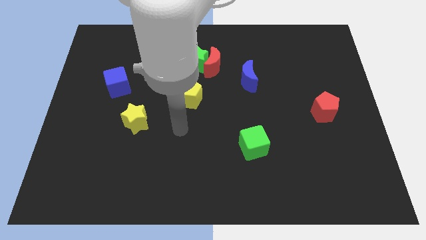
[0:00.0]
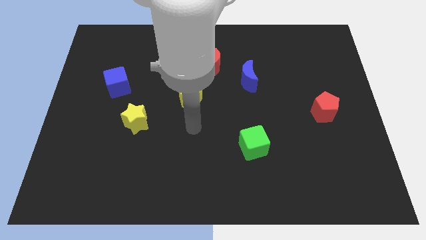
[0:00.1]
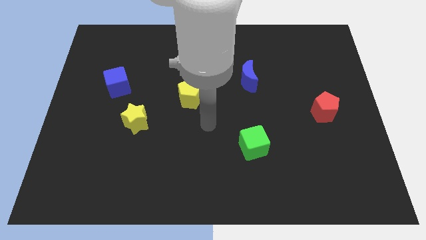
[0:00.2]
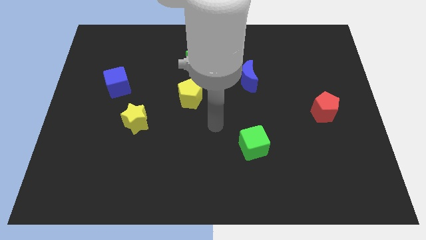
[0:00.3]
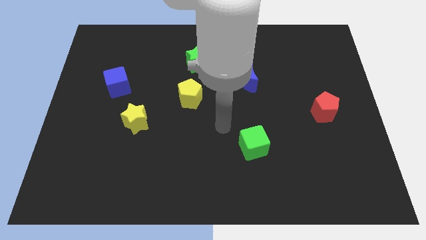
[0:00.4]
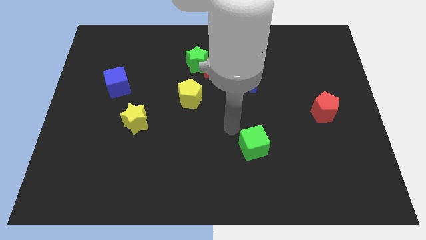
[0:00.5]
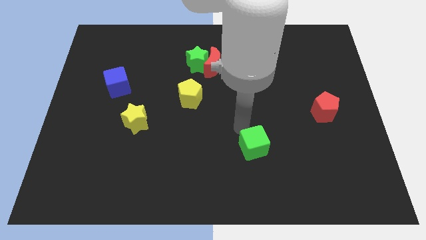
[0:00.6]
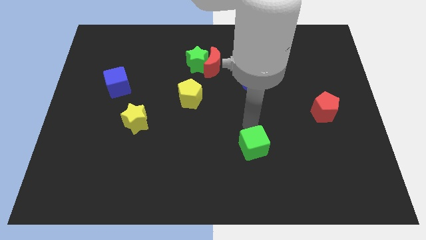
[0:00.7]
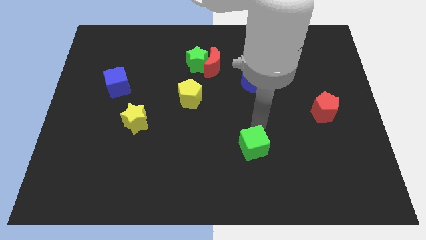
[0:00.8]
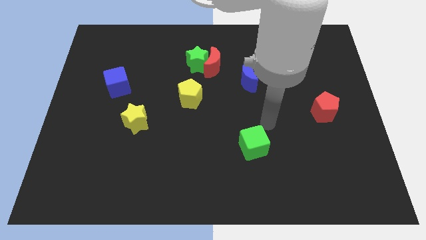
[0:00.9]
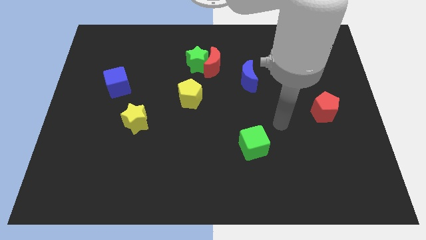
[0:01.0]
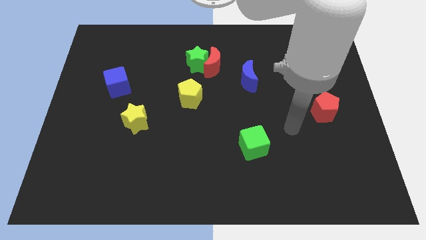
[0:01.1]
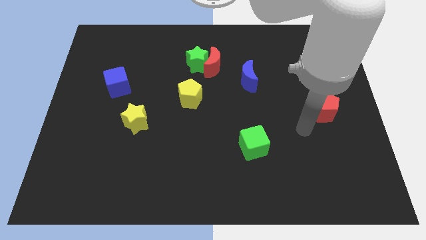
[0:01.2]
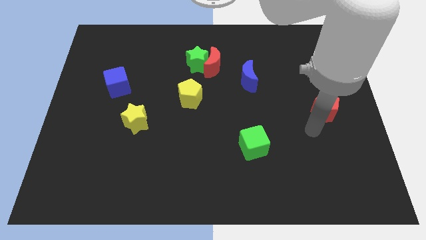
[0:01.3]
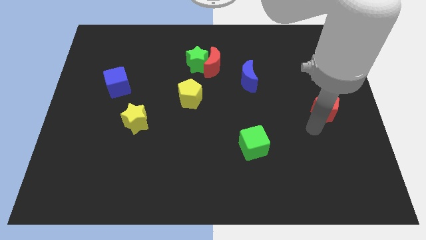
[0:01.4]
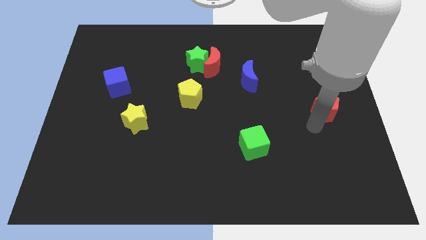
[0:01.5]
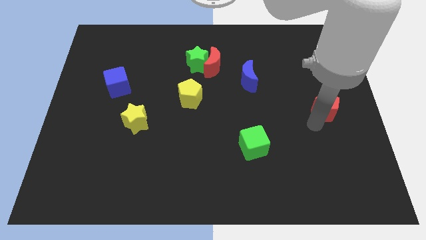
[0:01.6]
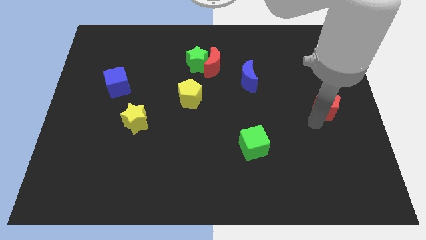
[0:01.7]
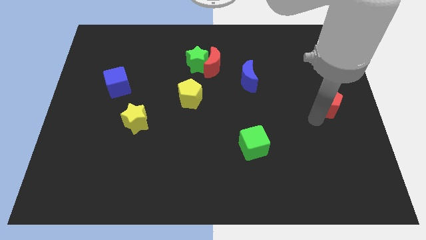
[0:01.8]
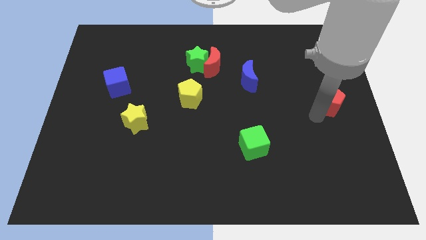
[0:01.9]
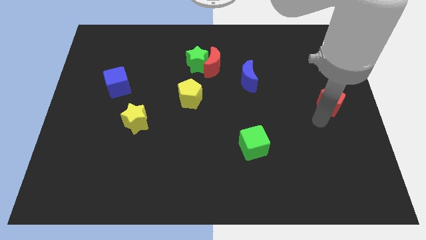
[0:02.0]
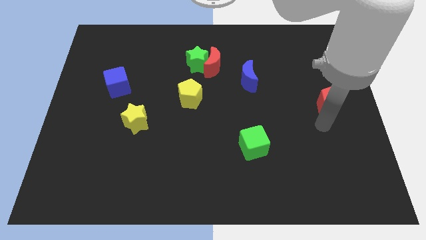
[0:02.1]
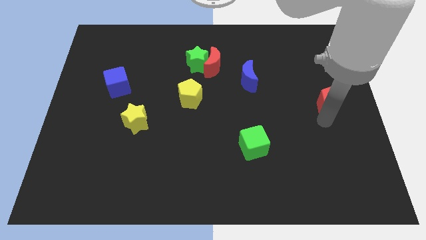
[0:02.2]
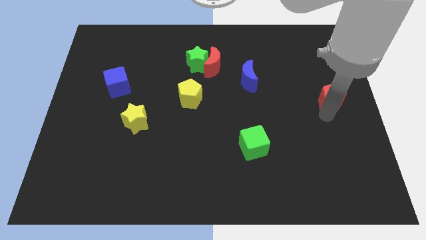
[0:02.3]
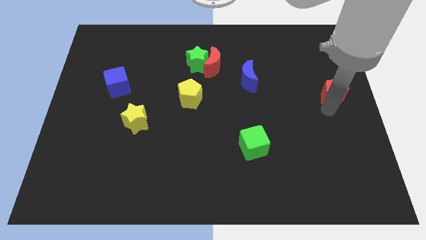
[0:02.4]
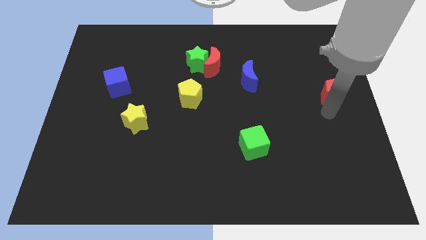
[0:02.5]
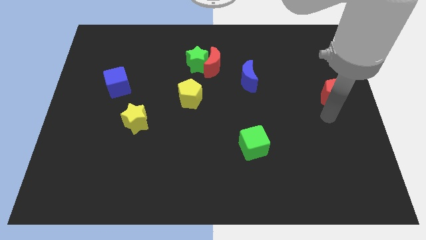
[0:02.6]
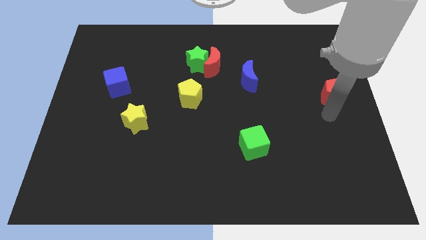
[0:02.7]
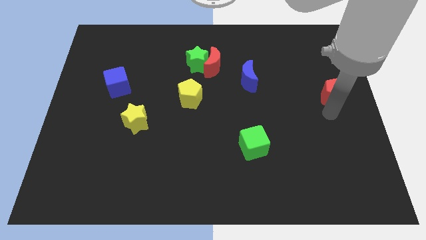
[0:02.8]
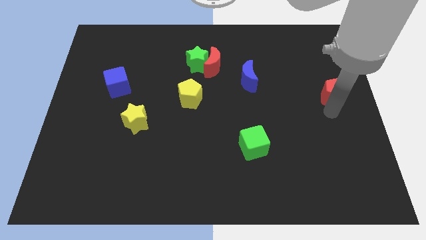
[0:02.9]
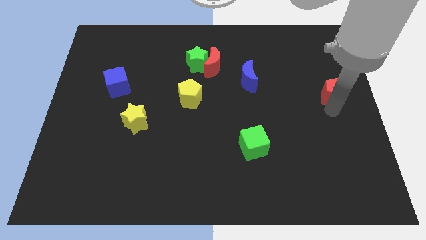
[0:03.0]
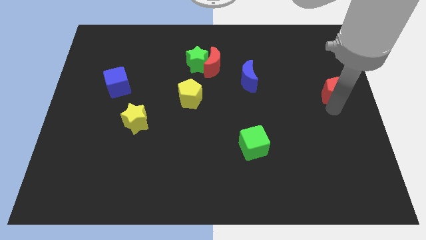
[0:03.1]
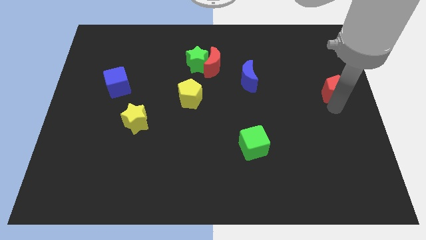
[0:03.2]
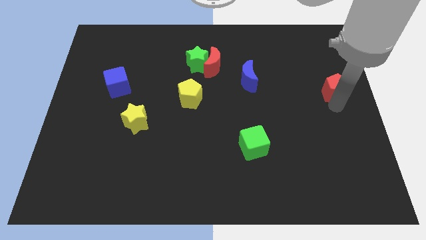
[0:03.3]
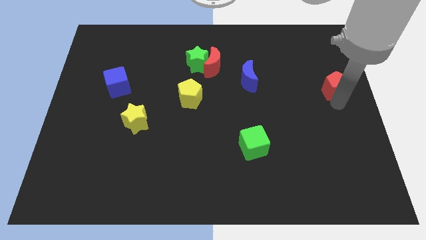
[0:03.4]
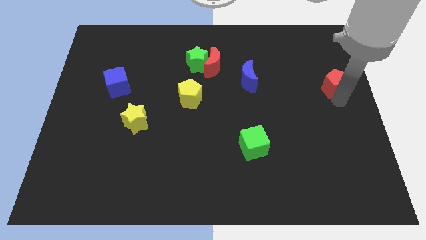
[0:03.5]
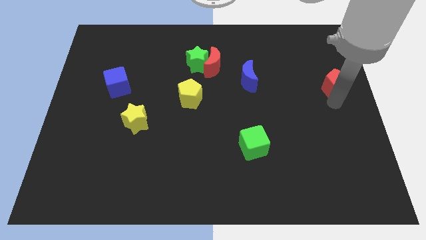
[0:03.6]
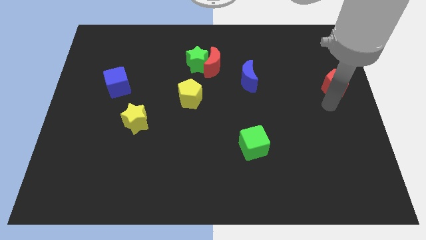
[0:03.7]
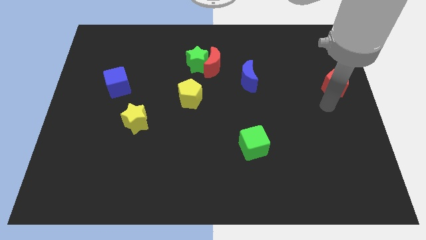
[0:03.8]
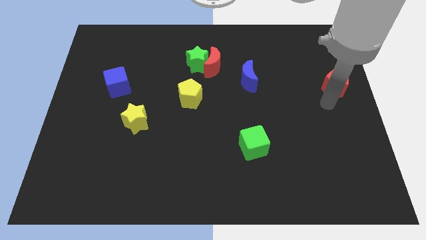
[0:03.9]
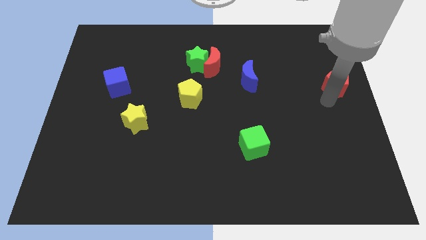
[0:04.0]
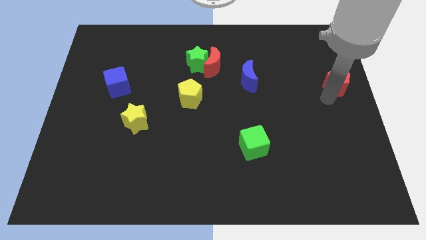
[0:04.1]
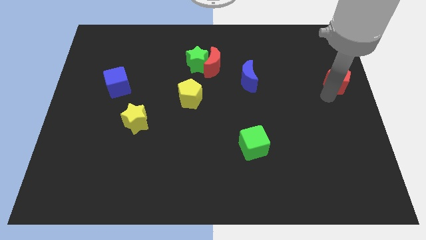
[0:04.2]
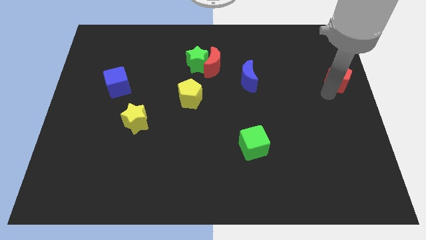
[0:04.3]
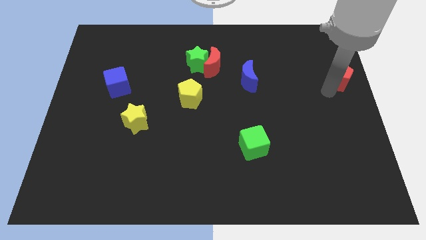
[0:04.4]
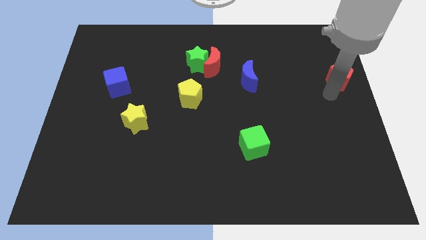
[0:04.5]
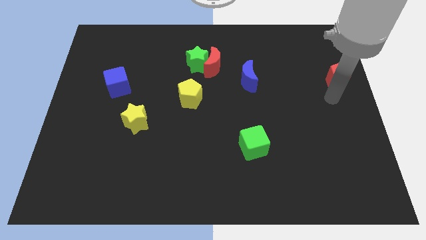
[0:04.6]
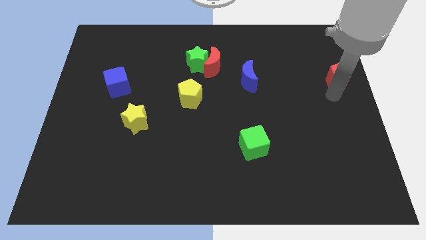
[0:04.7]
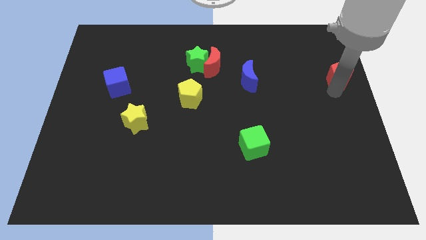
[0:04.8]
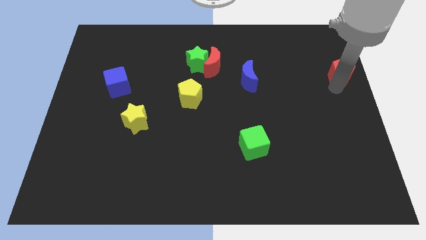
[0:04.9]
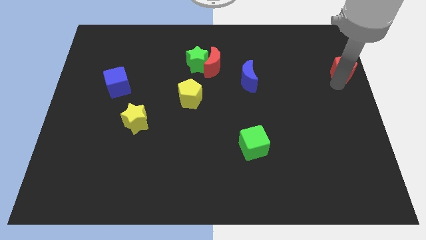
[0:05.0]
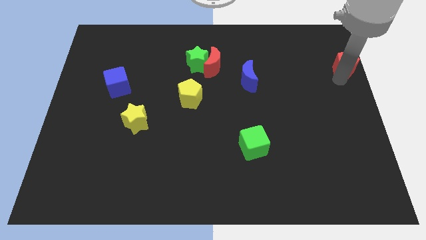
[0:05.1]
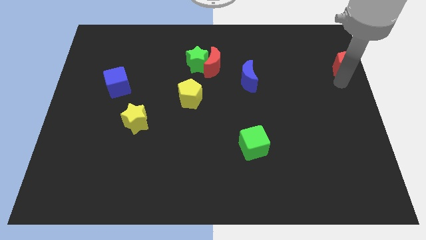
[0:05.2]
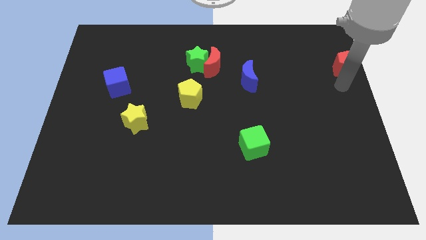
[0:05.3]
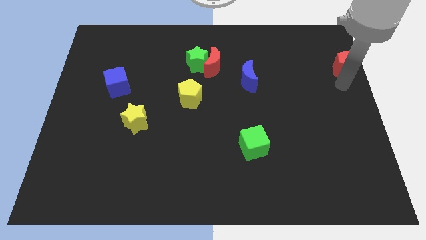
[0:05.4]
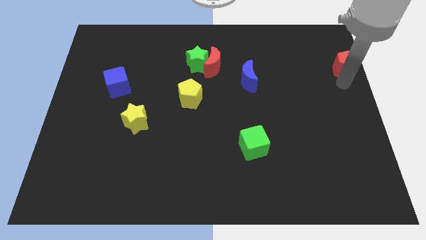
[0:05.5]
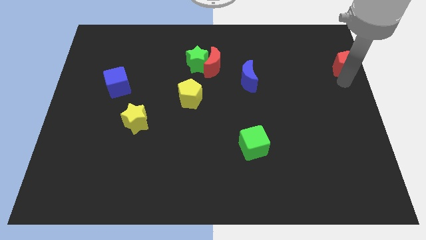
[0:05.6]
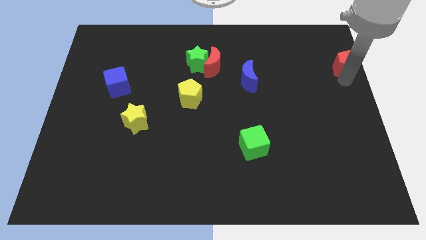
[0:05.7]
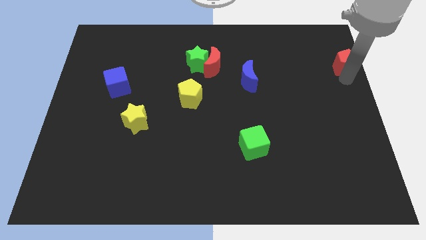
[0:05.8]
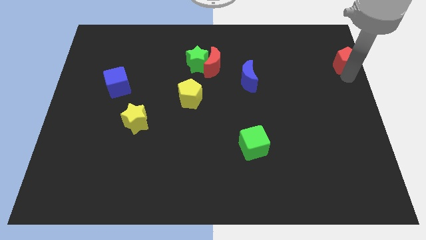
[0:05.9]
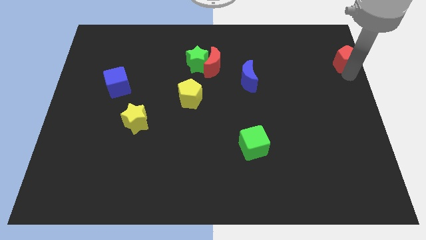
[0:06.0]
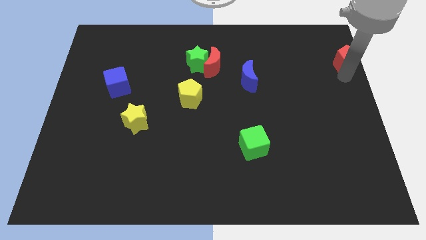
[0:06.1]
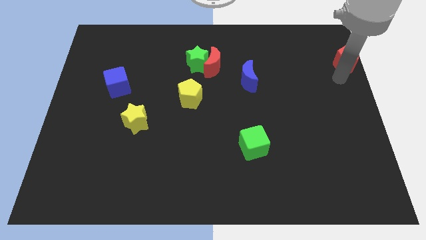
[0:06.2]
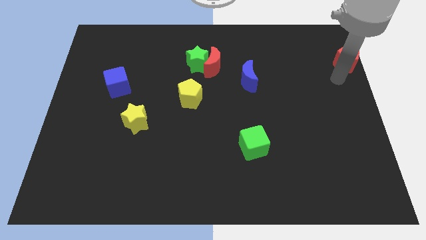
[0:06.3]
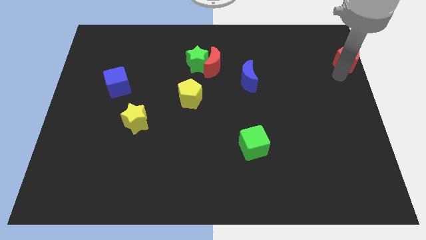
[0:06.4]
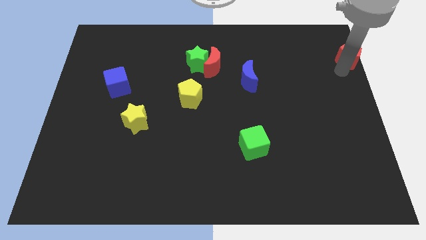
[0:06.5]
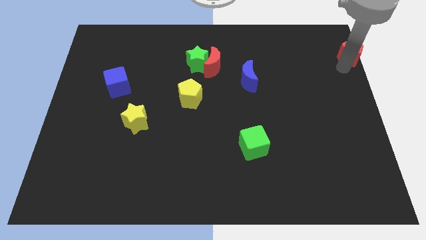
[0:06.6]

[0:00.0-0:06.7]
move the red pentagon to the top right corner
